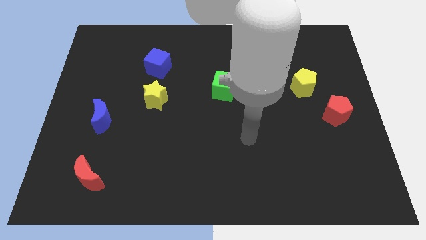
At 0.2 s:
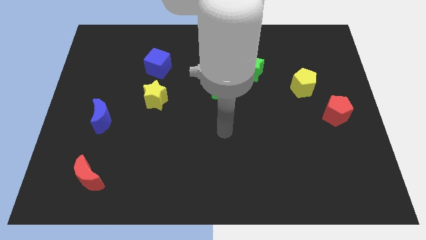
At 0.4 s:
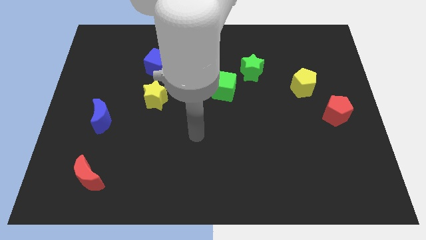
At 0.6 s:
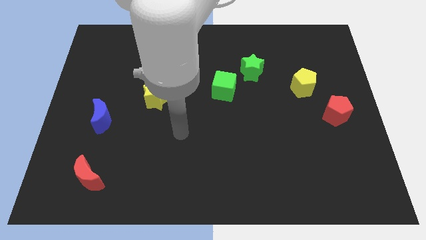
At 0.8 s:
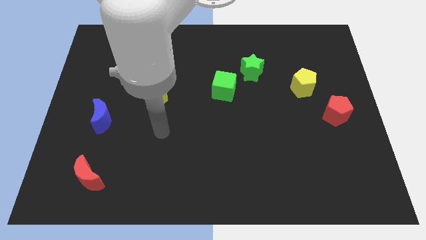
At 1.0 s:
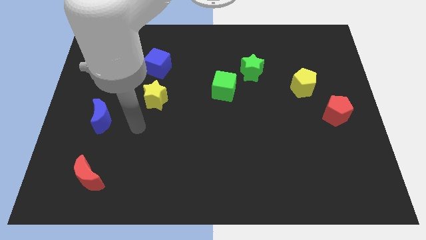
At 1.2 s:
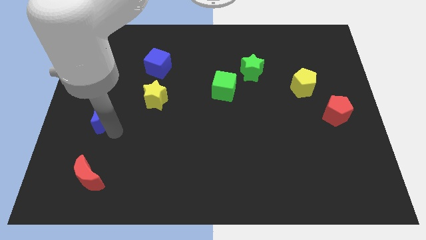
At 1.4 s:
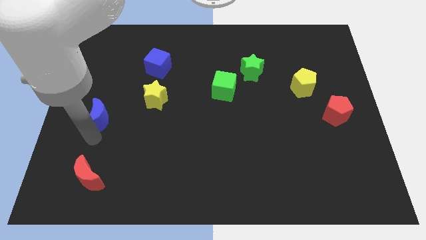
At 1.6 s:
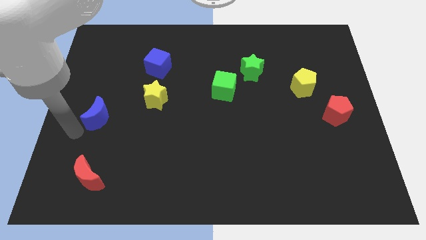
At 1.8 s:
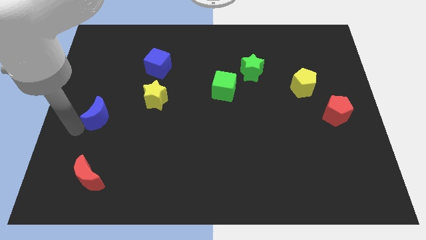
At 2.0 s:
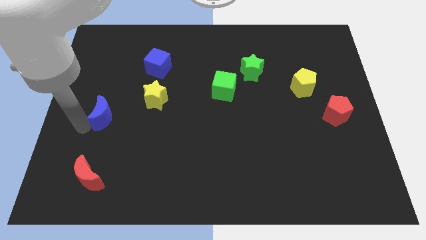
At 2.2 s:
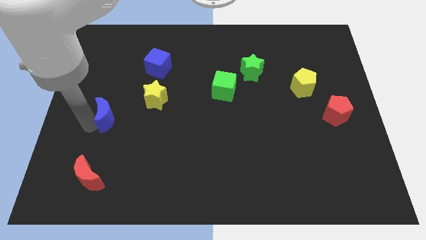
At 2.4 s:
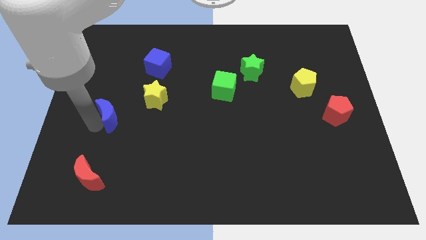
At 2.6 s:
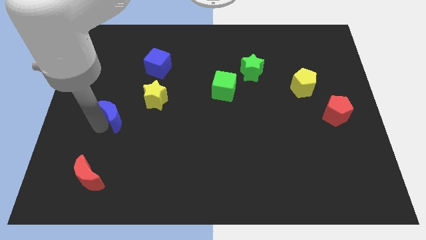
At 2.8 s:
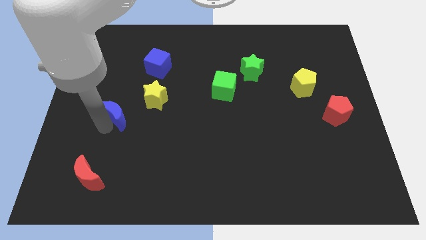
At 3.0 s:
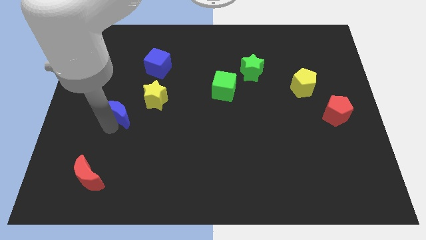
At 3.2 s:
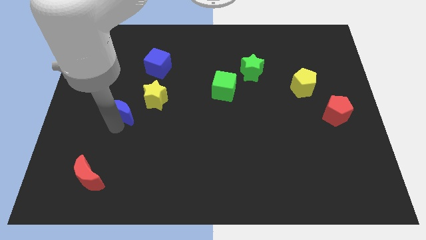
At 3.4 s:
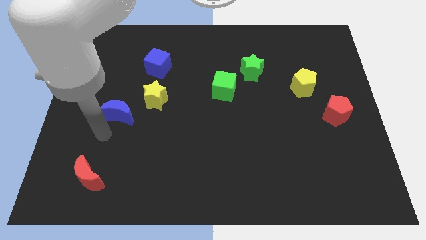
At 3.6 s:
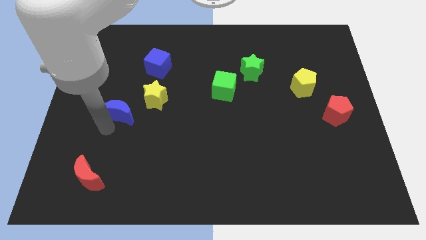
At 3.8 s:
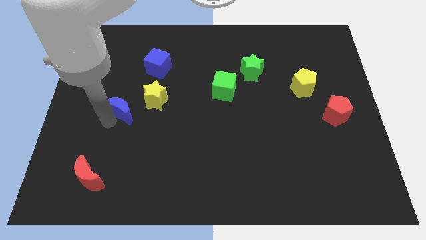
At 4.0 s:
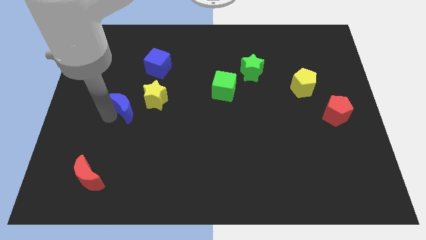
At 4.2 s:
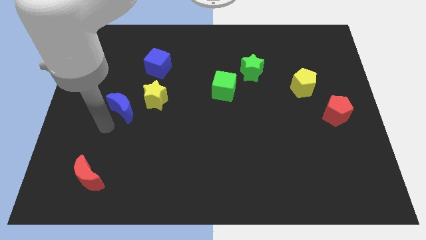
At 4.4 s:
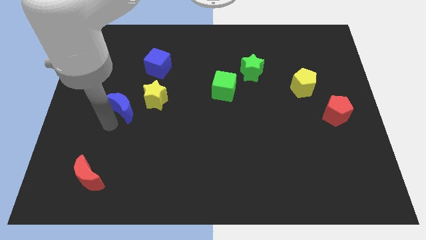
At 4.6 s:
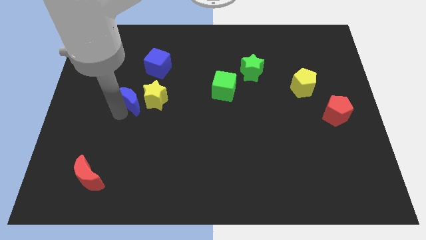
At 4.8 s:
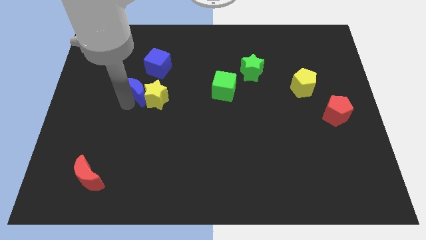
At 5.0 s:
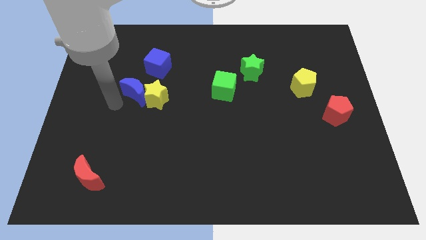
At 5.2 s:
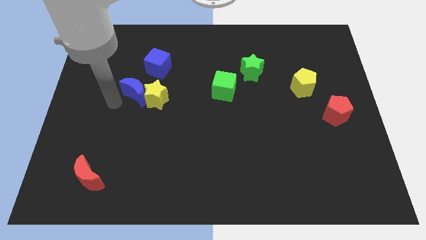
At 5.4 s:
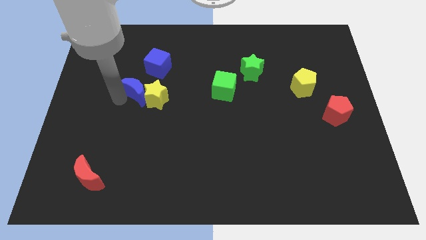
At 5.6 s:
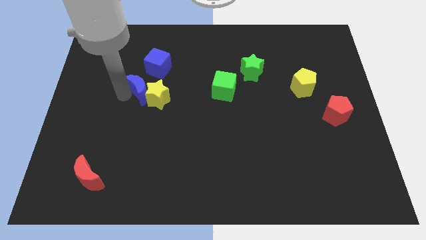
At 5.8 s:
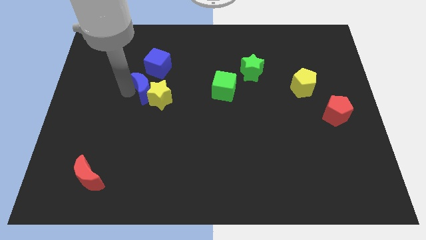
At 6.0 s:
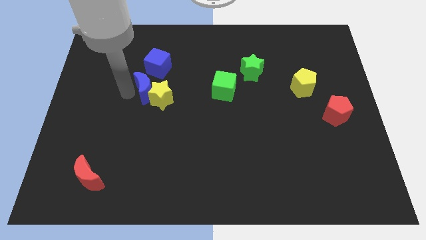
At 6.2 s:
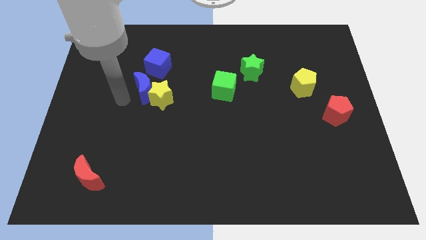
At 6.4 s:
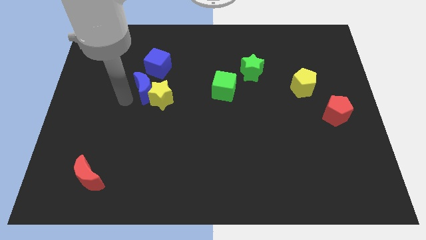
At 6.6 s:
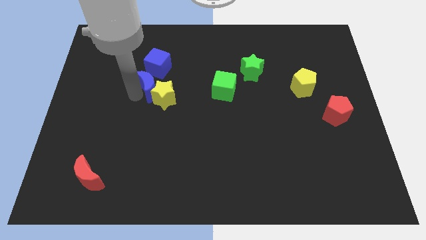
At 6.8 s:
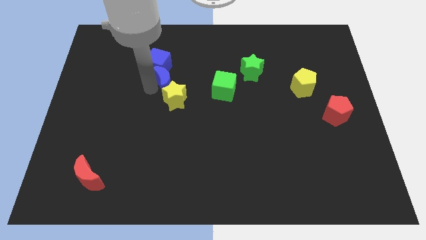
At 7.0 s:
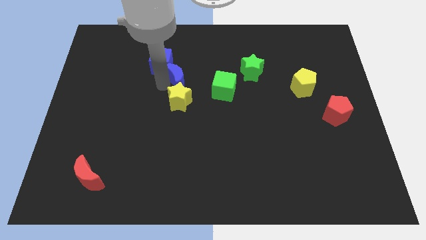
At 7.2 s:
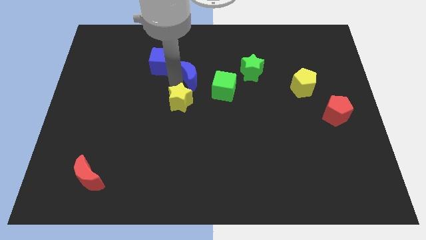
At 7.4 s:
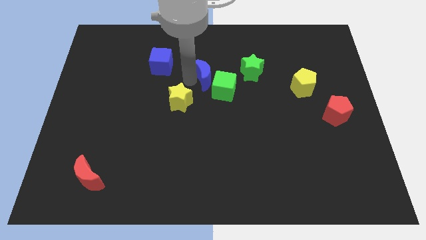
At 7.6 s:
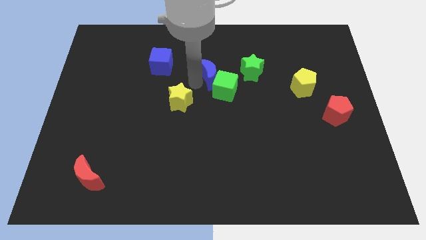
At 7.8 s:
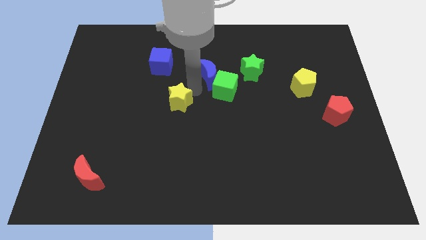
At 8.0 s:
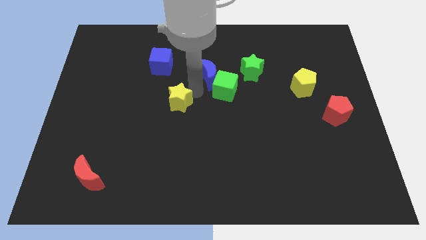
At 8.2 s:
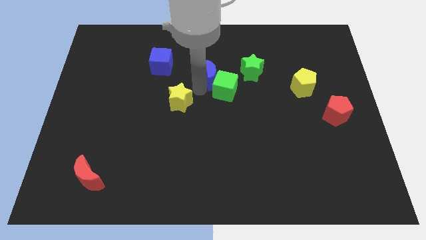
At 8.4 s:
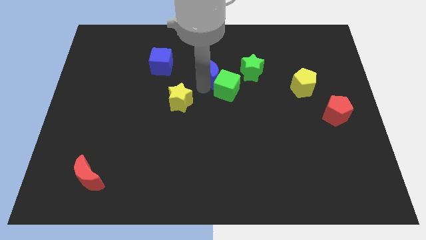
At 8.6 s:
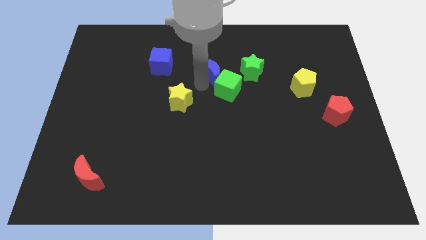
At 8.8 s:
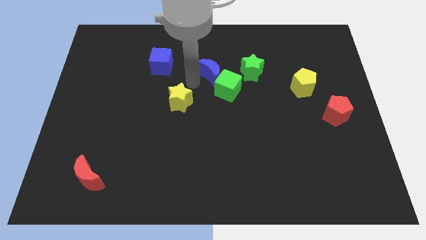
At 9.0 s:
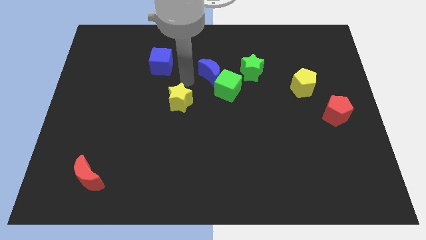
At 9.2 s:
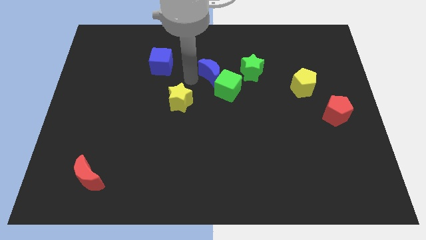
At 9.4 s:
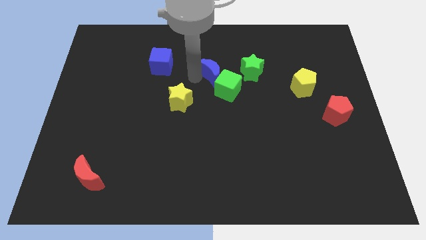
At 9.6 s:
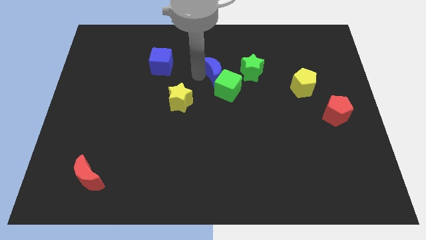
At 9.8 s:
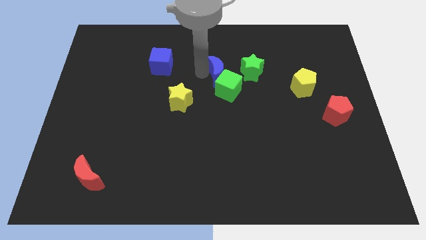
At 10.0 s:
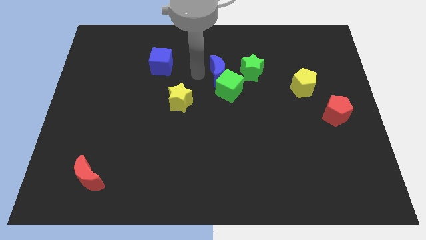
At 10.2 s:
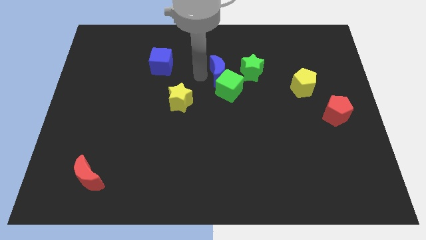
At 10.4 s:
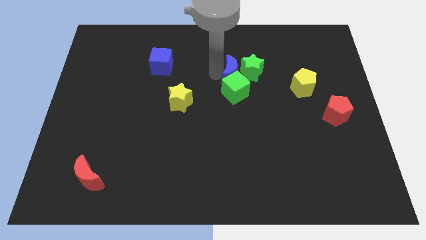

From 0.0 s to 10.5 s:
slide the blue moon next to the green star

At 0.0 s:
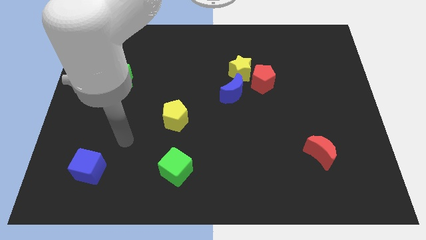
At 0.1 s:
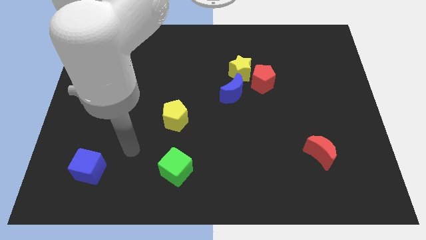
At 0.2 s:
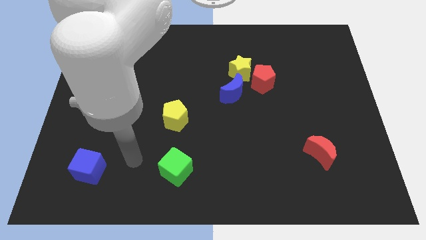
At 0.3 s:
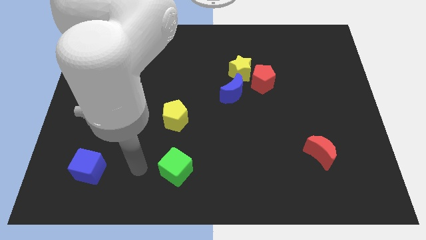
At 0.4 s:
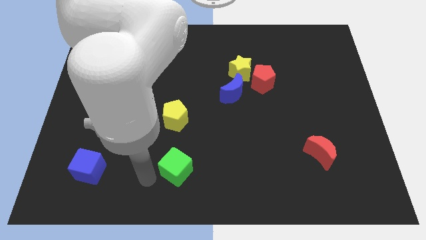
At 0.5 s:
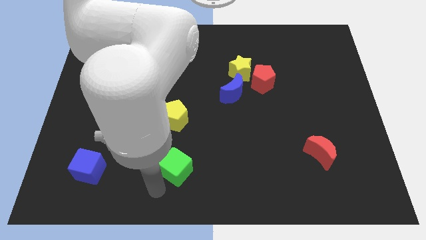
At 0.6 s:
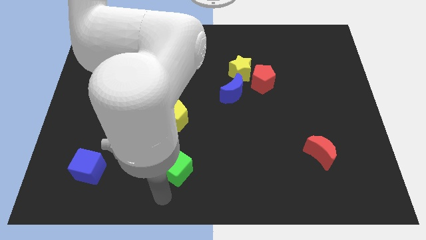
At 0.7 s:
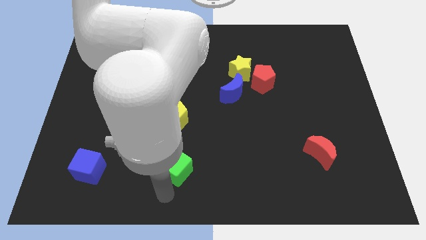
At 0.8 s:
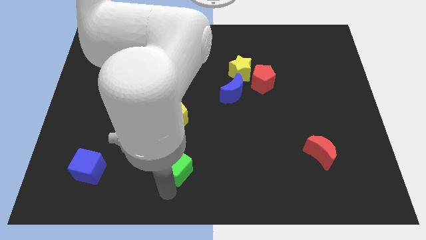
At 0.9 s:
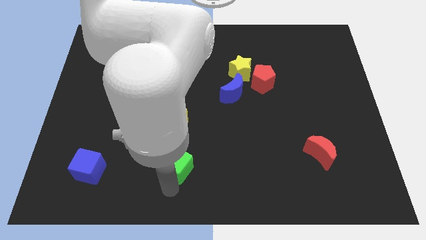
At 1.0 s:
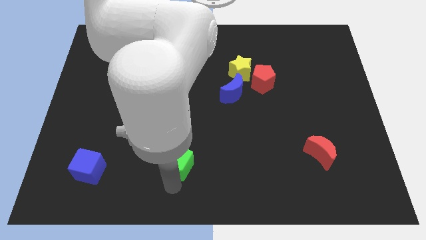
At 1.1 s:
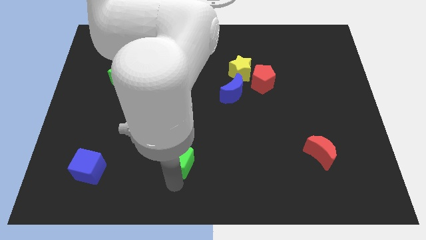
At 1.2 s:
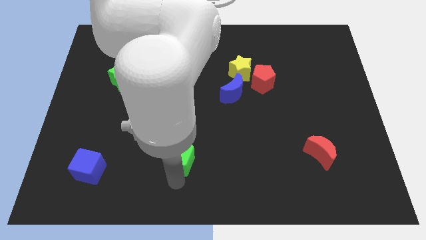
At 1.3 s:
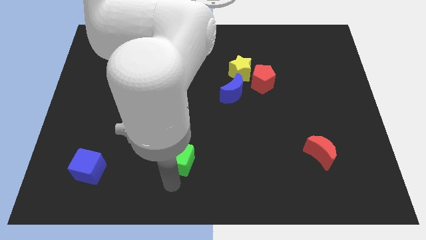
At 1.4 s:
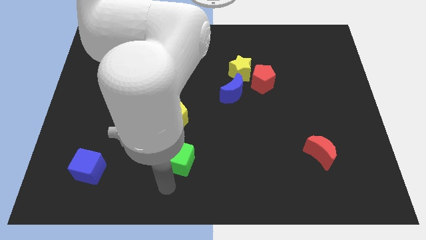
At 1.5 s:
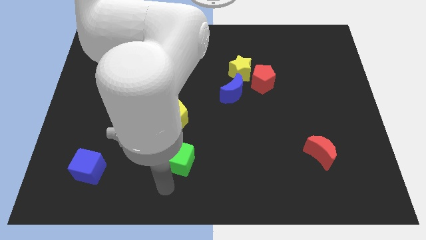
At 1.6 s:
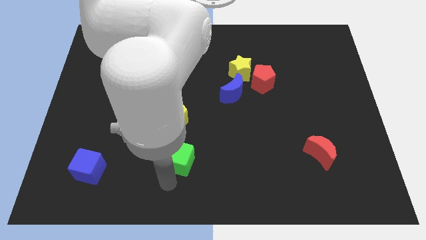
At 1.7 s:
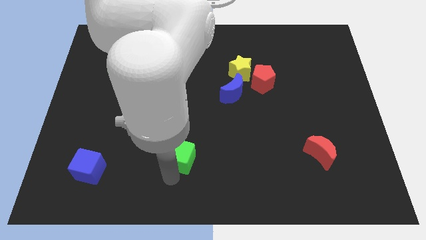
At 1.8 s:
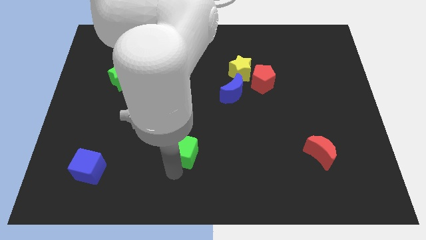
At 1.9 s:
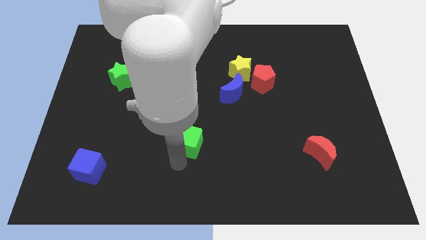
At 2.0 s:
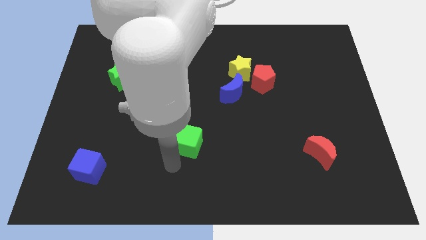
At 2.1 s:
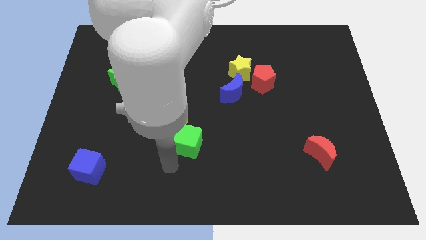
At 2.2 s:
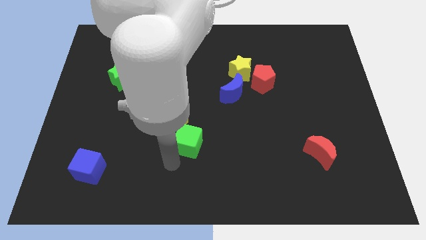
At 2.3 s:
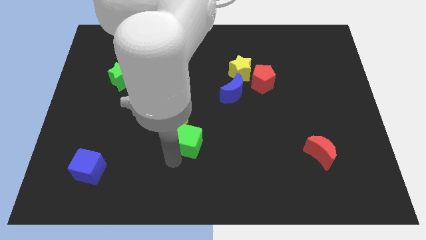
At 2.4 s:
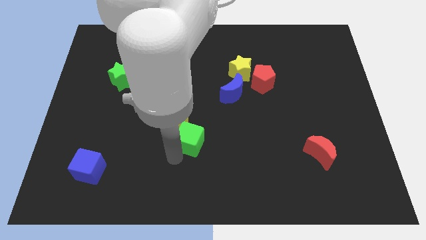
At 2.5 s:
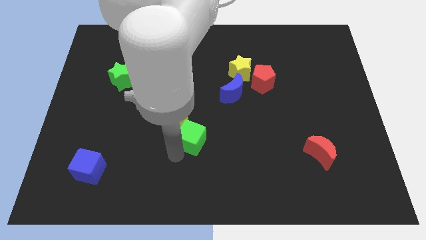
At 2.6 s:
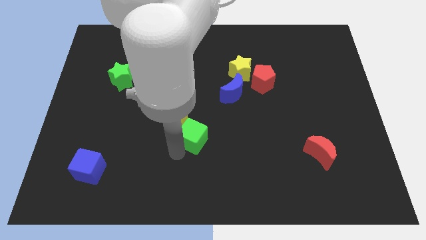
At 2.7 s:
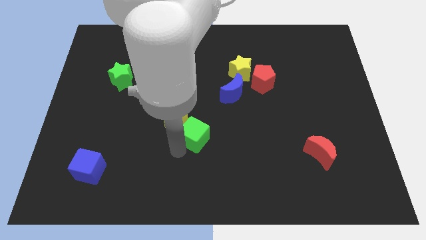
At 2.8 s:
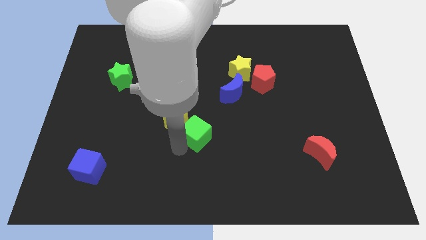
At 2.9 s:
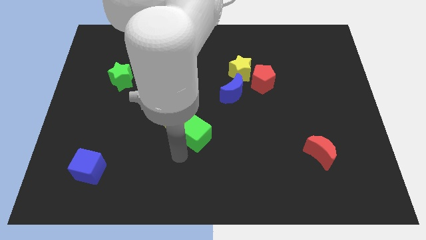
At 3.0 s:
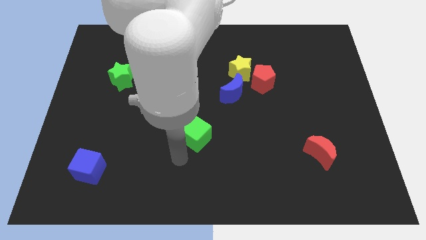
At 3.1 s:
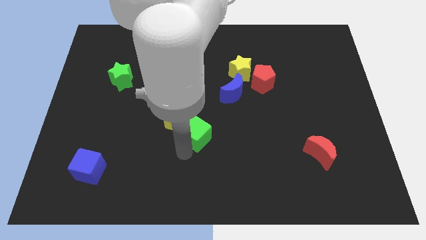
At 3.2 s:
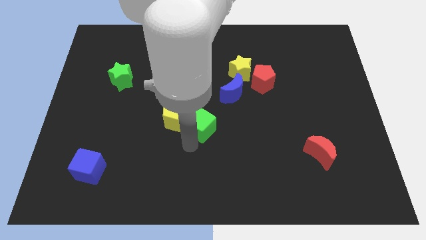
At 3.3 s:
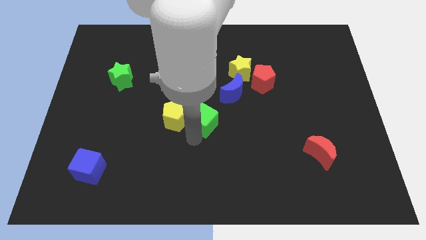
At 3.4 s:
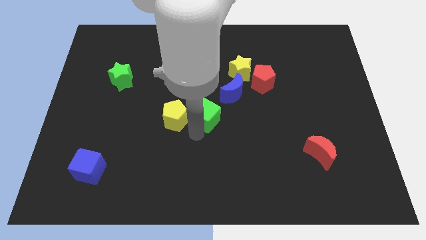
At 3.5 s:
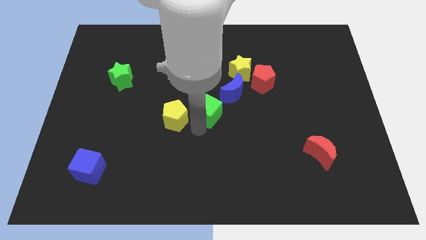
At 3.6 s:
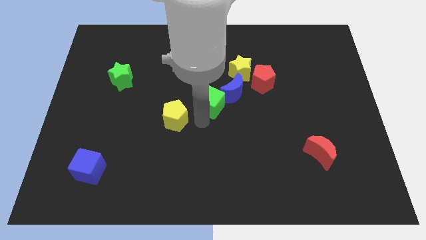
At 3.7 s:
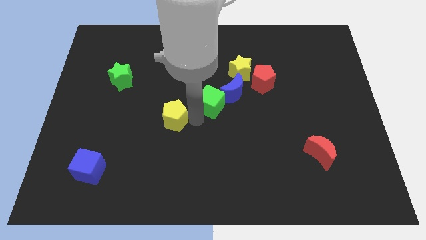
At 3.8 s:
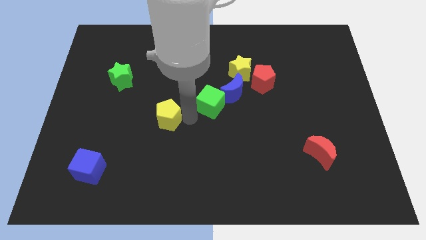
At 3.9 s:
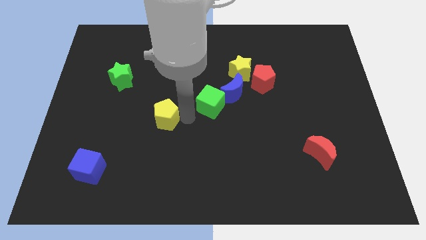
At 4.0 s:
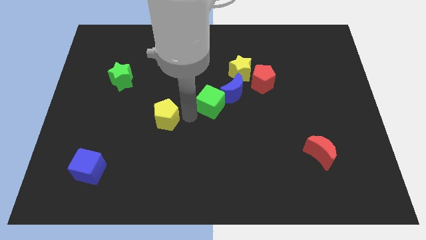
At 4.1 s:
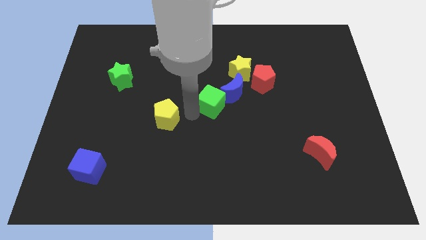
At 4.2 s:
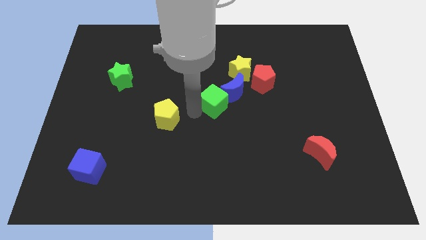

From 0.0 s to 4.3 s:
move the green cube close to the blue moon
